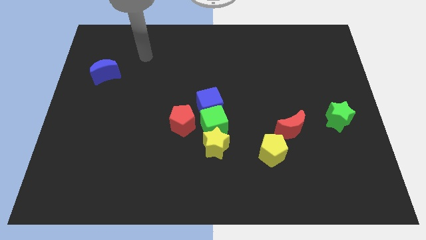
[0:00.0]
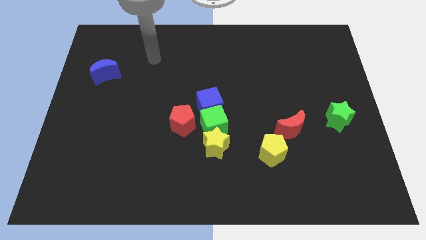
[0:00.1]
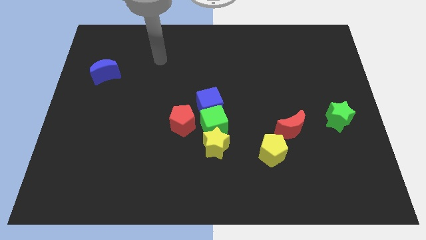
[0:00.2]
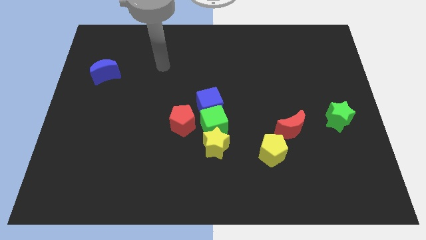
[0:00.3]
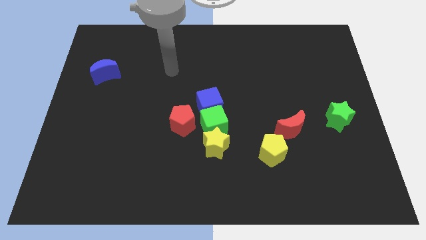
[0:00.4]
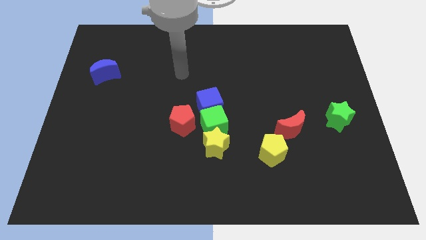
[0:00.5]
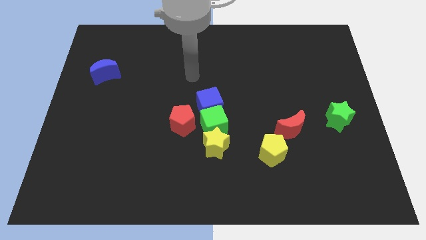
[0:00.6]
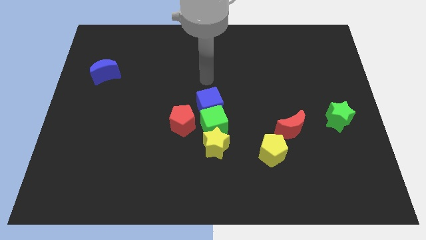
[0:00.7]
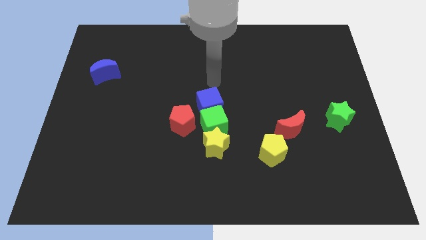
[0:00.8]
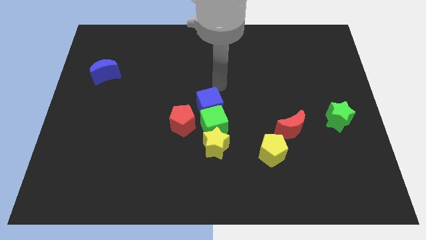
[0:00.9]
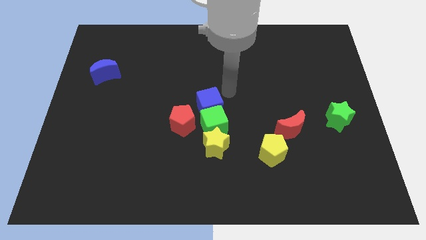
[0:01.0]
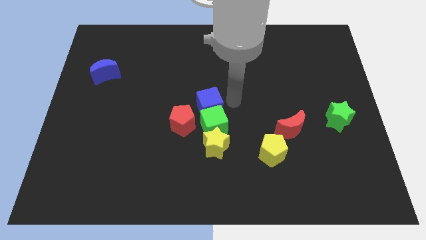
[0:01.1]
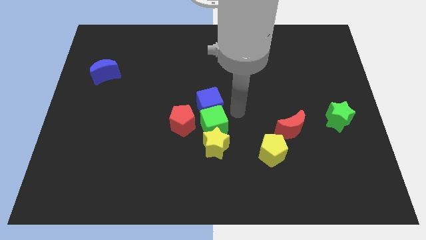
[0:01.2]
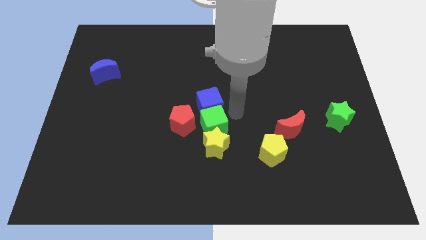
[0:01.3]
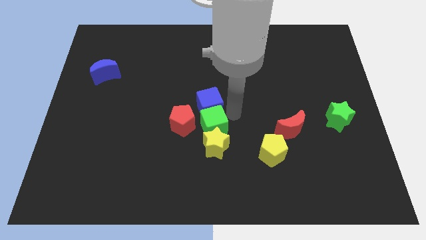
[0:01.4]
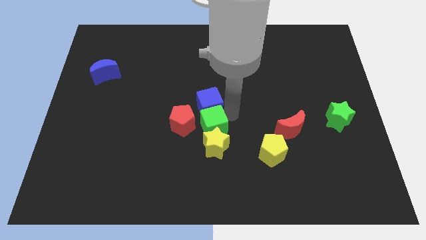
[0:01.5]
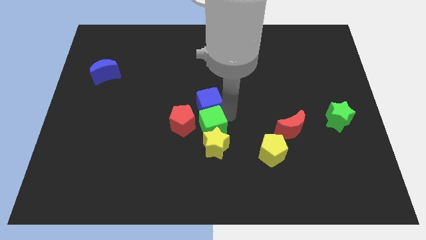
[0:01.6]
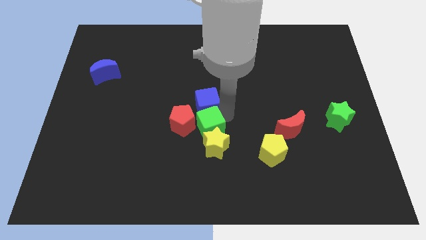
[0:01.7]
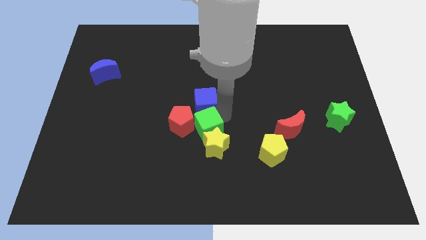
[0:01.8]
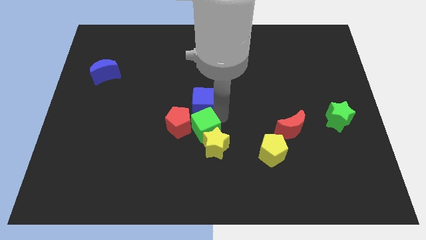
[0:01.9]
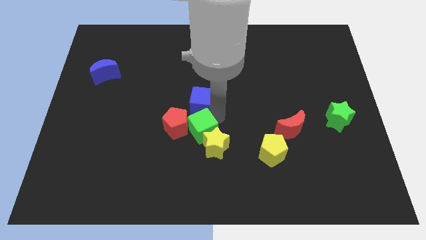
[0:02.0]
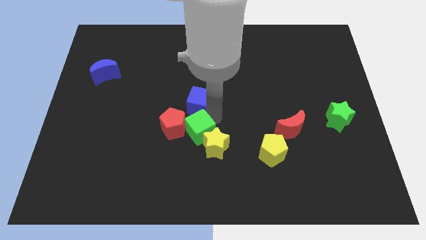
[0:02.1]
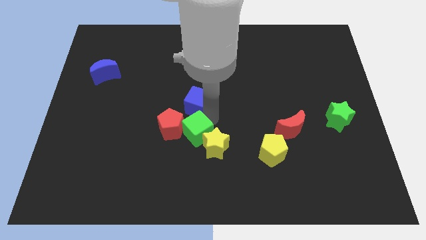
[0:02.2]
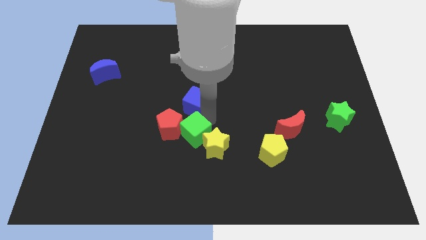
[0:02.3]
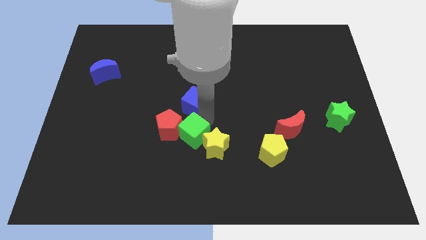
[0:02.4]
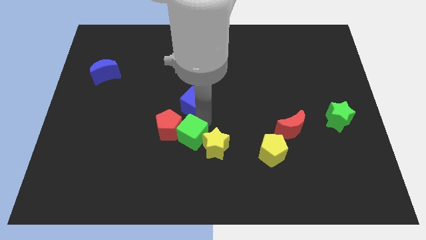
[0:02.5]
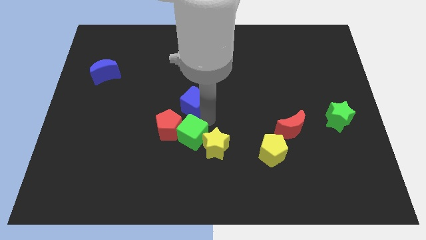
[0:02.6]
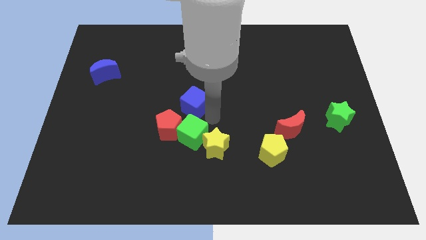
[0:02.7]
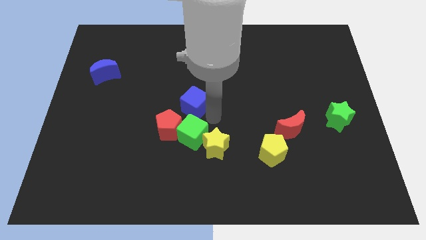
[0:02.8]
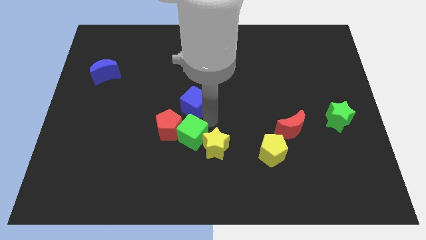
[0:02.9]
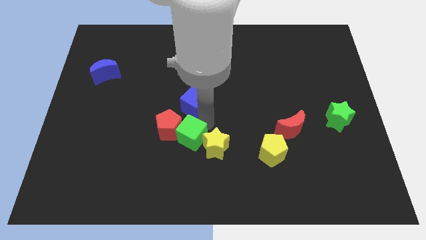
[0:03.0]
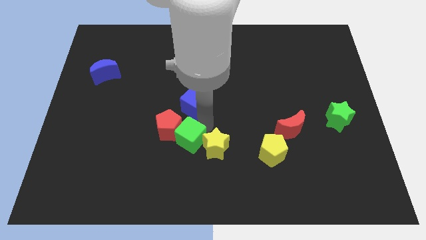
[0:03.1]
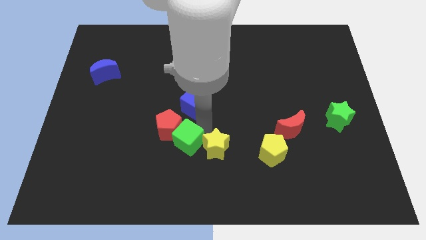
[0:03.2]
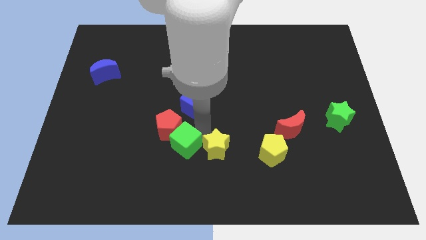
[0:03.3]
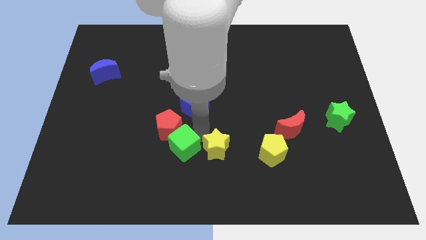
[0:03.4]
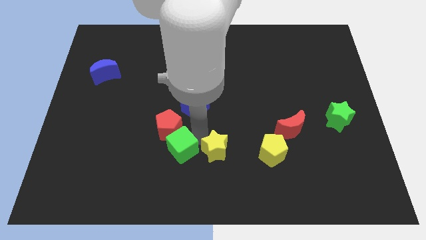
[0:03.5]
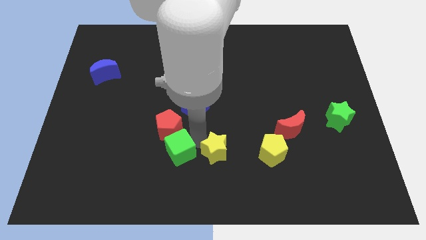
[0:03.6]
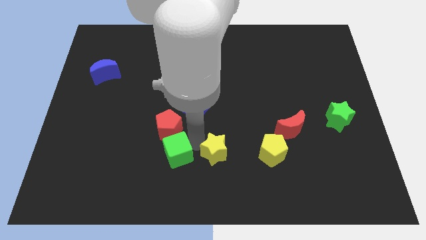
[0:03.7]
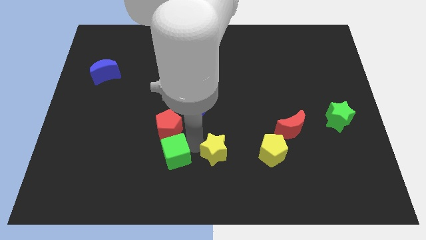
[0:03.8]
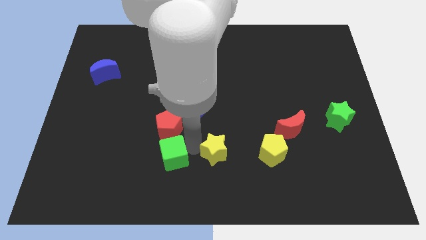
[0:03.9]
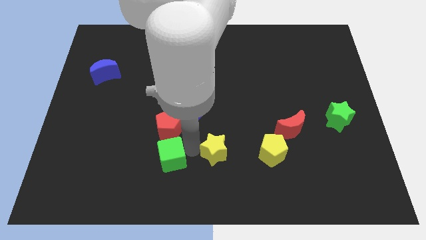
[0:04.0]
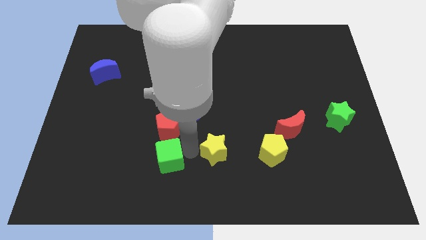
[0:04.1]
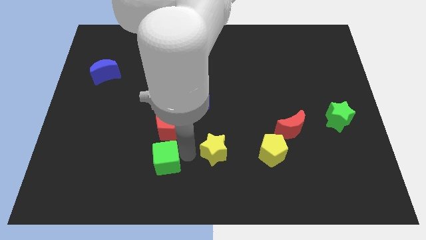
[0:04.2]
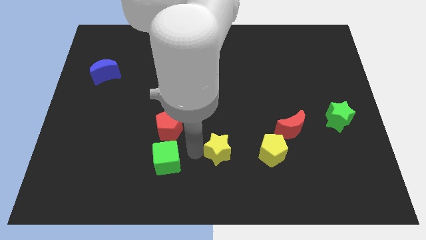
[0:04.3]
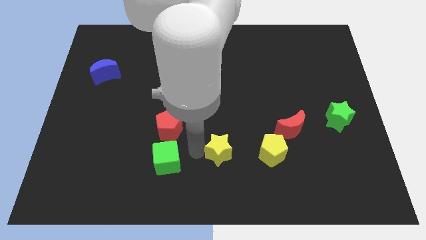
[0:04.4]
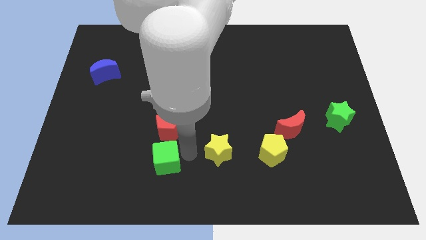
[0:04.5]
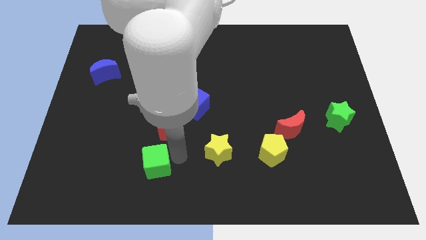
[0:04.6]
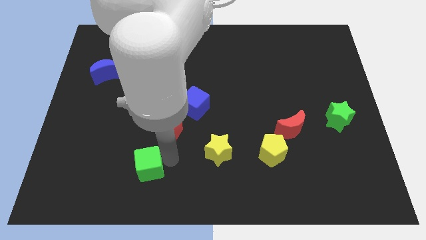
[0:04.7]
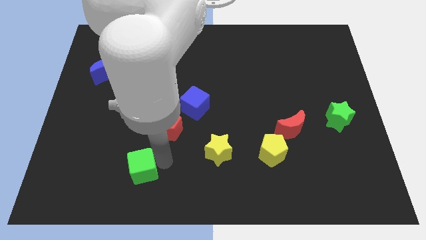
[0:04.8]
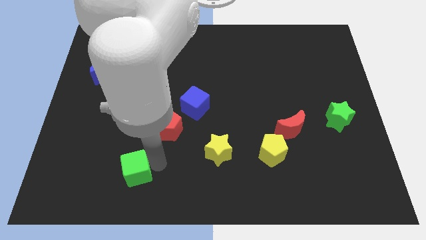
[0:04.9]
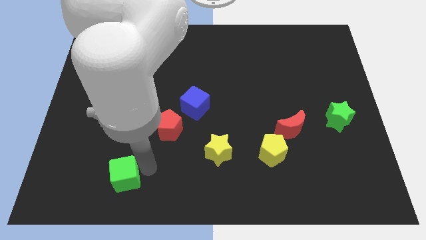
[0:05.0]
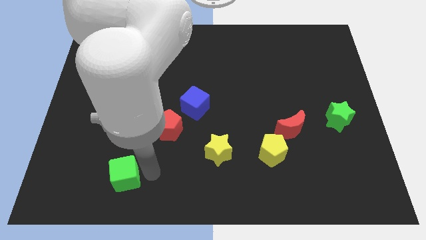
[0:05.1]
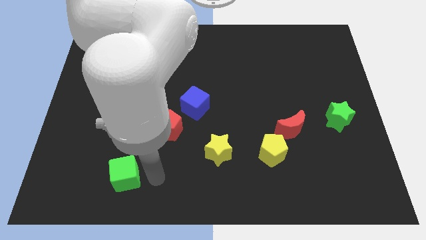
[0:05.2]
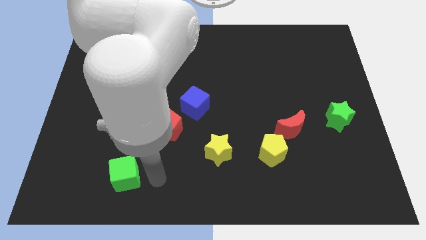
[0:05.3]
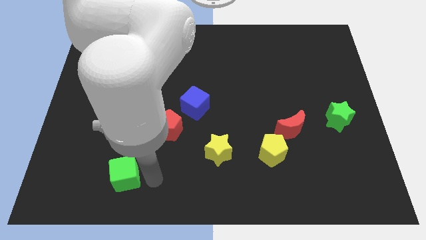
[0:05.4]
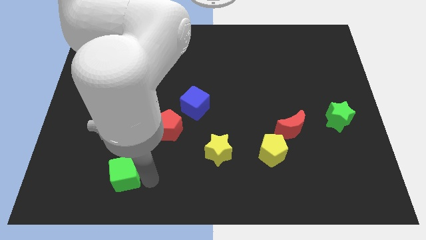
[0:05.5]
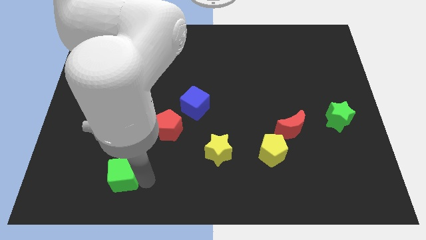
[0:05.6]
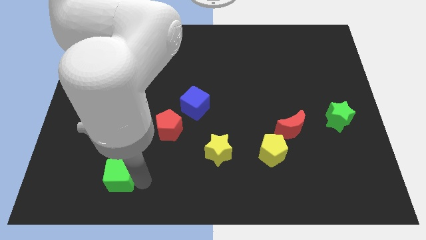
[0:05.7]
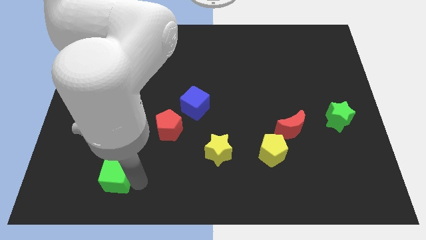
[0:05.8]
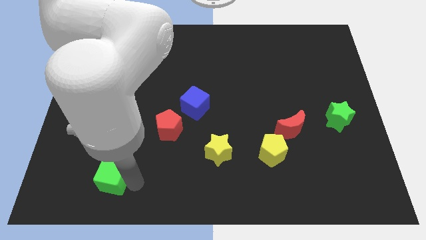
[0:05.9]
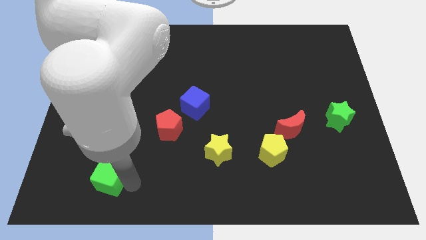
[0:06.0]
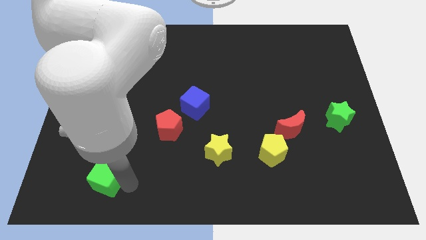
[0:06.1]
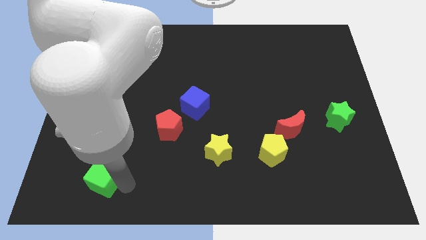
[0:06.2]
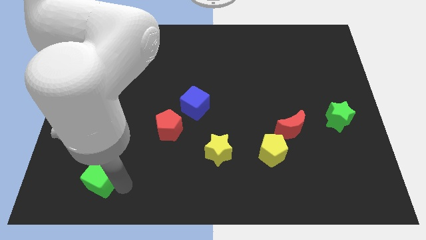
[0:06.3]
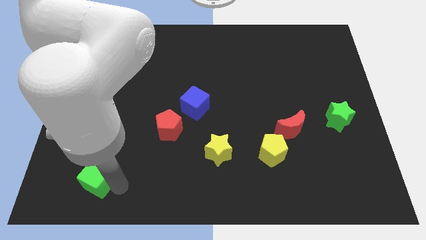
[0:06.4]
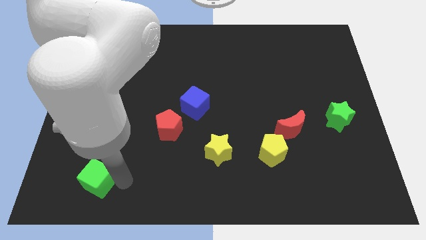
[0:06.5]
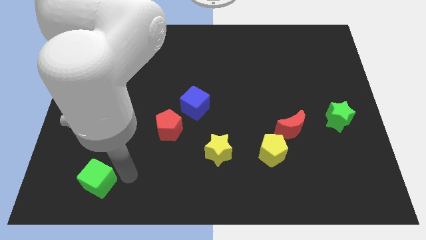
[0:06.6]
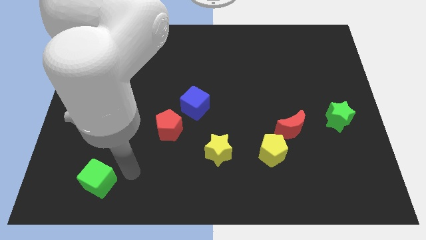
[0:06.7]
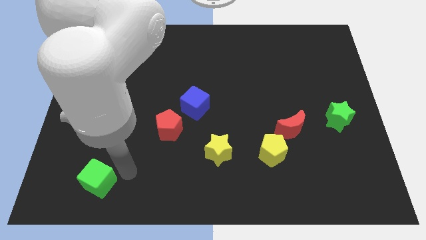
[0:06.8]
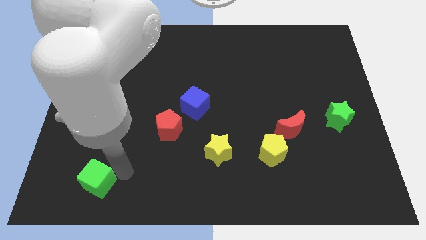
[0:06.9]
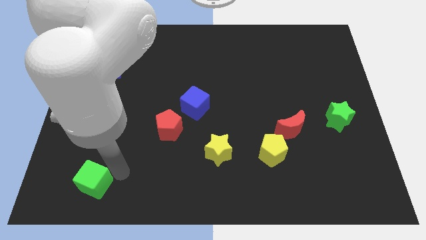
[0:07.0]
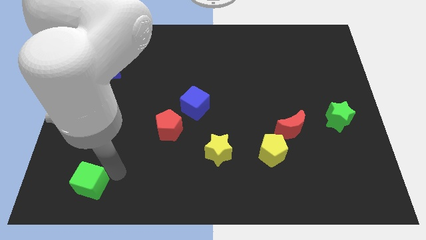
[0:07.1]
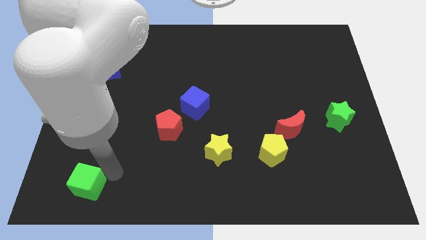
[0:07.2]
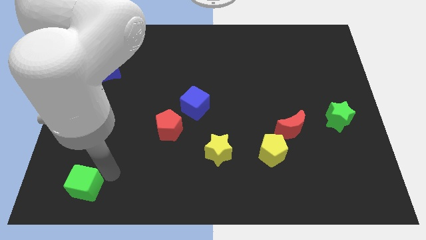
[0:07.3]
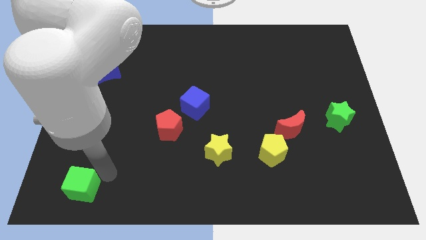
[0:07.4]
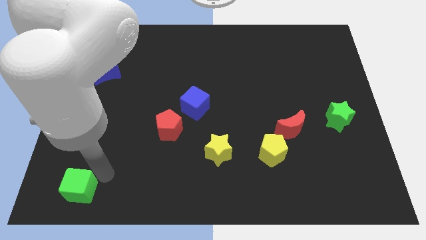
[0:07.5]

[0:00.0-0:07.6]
push the green cube to the lower left corner
